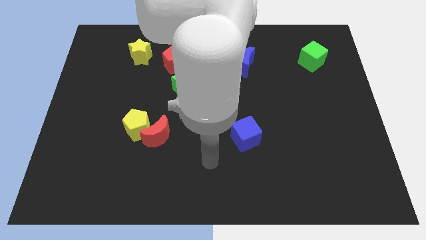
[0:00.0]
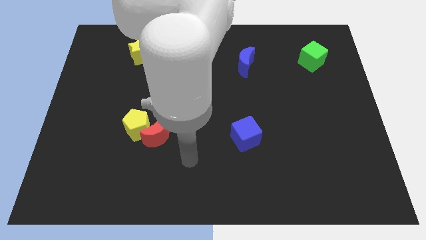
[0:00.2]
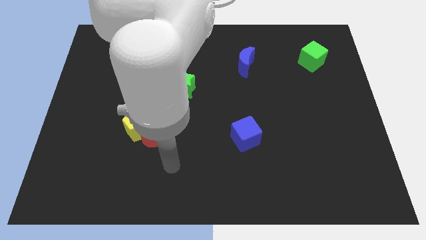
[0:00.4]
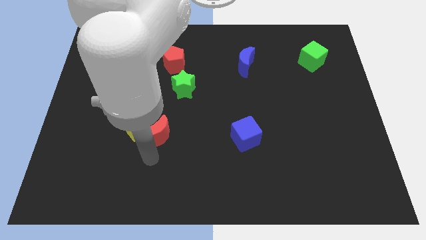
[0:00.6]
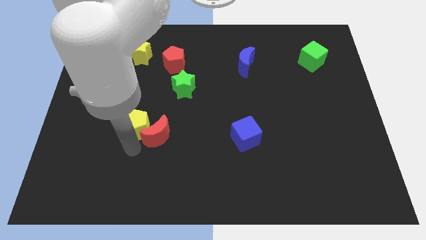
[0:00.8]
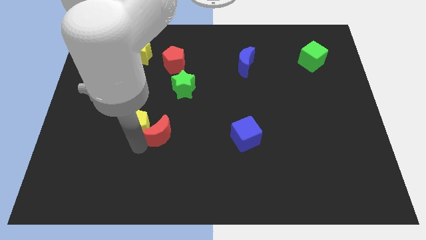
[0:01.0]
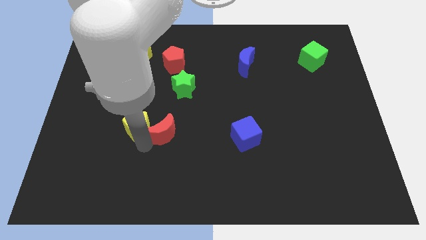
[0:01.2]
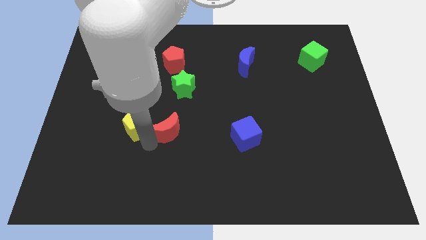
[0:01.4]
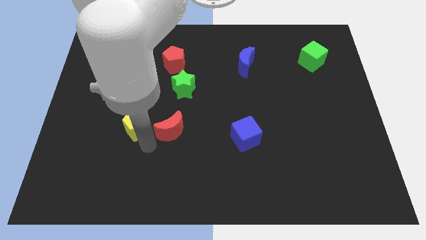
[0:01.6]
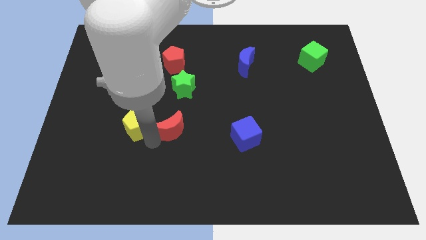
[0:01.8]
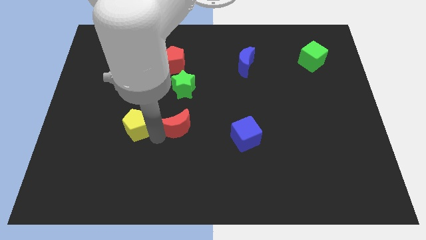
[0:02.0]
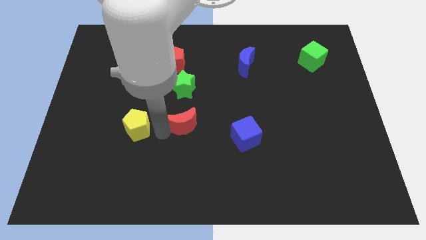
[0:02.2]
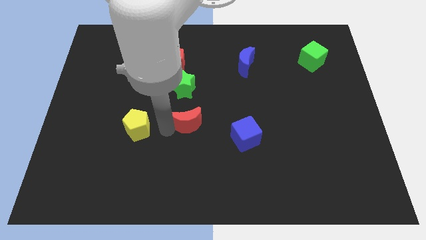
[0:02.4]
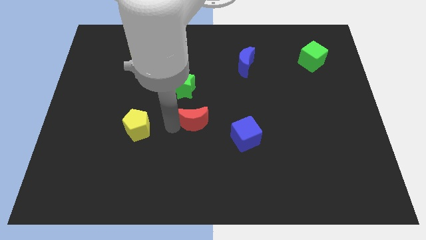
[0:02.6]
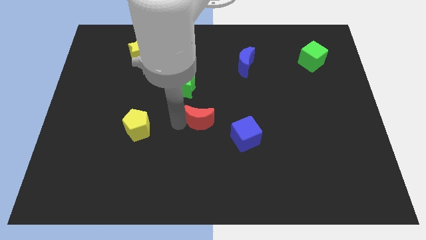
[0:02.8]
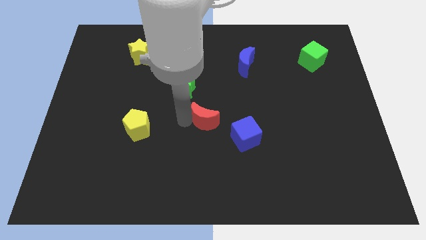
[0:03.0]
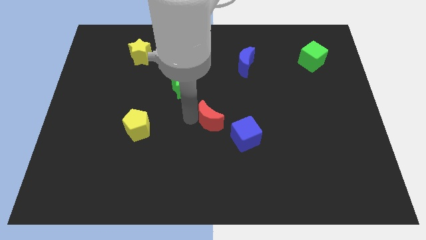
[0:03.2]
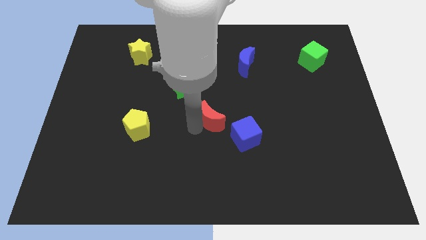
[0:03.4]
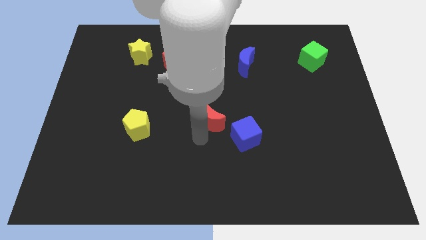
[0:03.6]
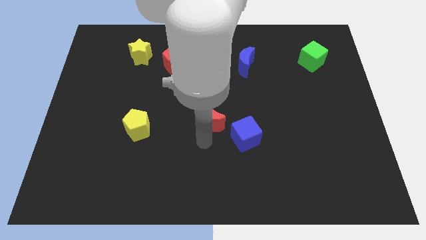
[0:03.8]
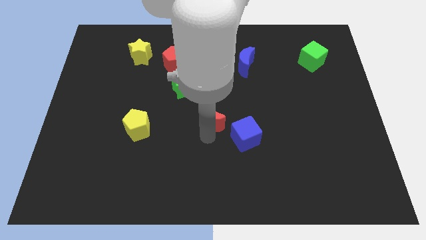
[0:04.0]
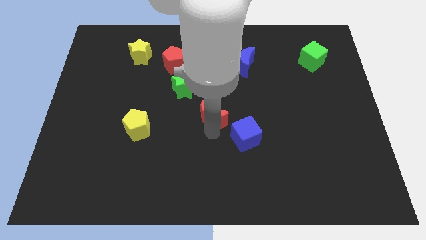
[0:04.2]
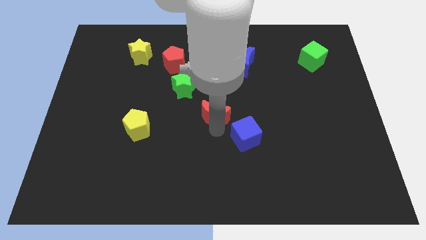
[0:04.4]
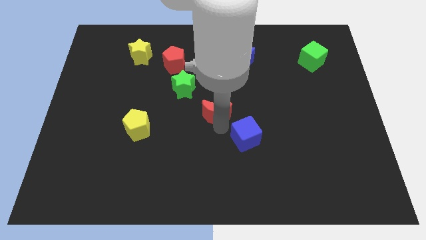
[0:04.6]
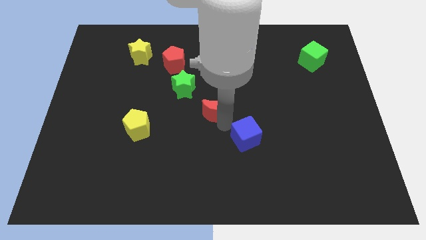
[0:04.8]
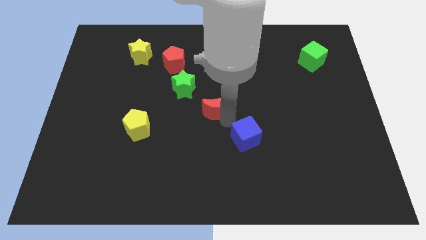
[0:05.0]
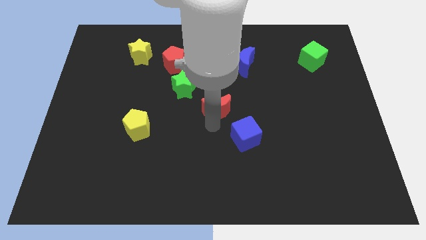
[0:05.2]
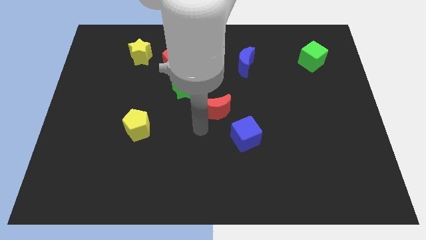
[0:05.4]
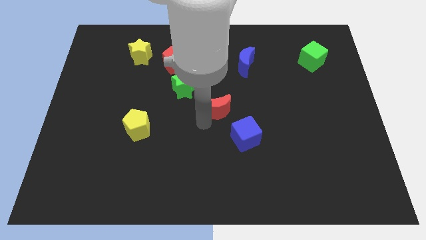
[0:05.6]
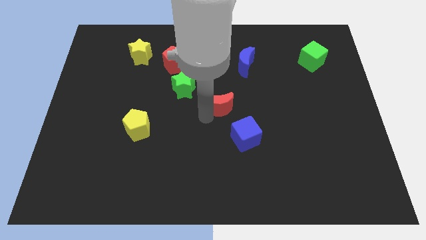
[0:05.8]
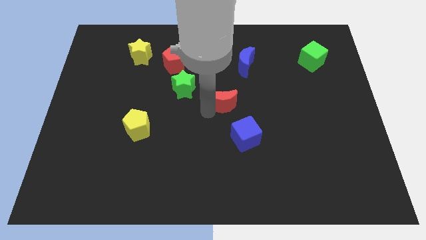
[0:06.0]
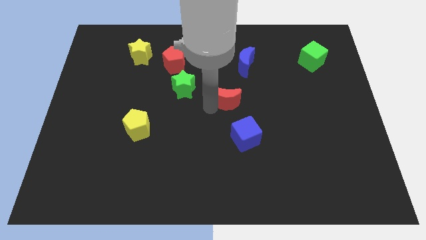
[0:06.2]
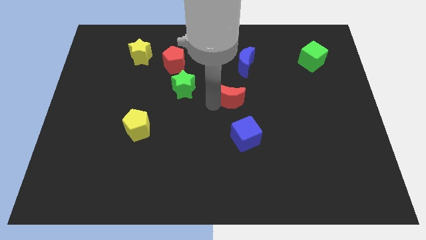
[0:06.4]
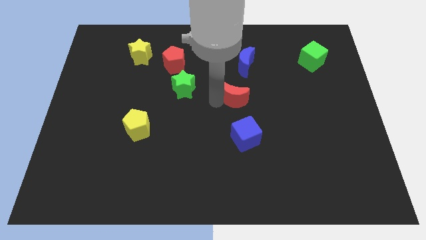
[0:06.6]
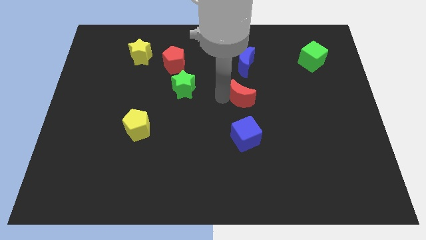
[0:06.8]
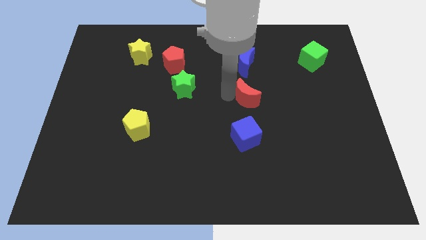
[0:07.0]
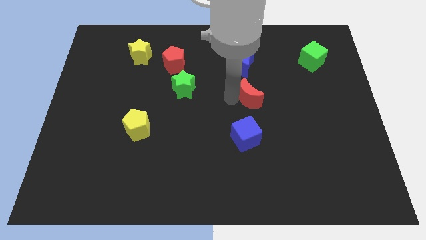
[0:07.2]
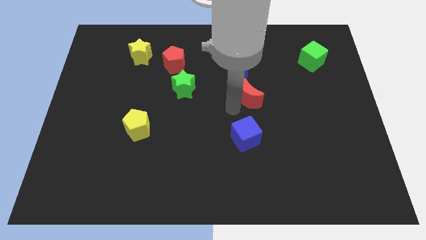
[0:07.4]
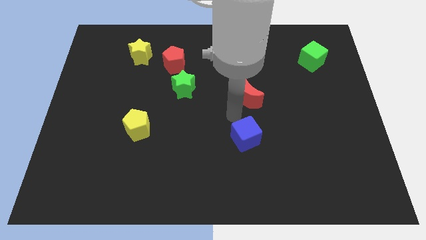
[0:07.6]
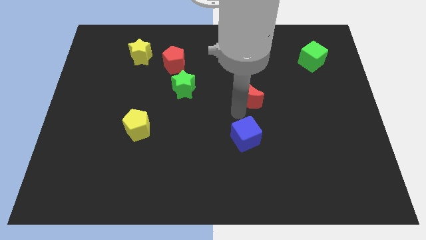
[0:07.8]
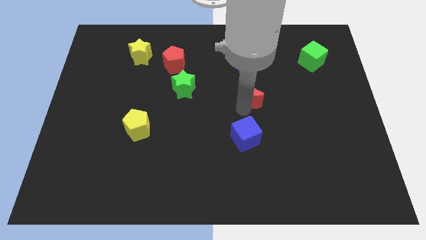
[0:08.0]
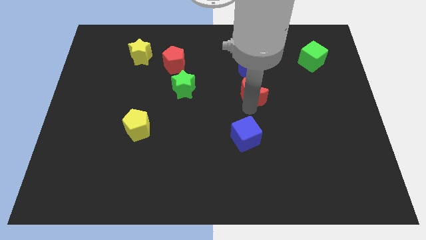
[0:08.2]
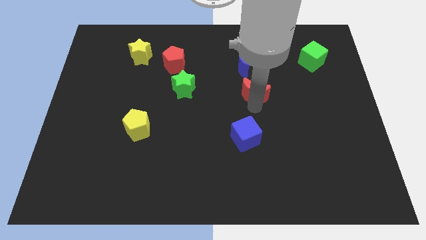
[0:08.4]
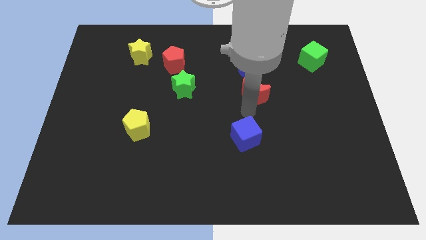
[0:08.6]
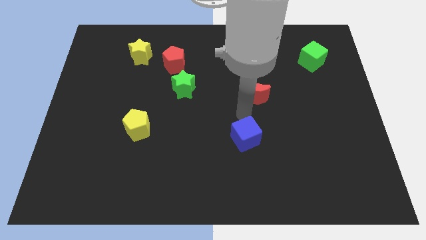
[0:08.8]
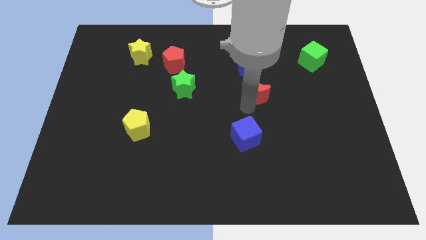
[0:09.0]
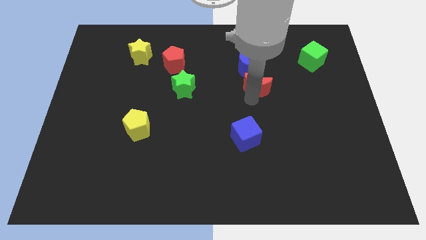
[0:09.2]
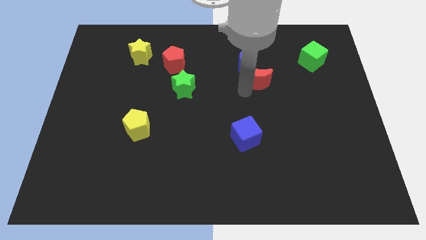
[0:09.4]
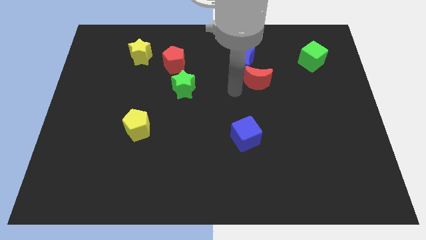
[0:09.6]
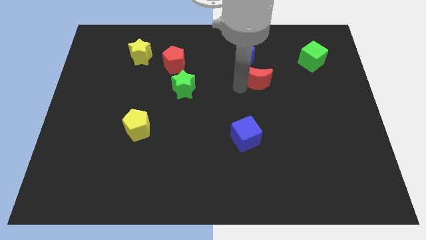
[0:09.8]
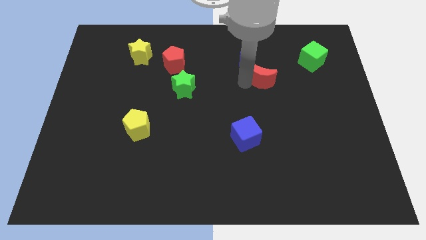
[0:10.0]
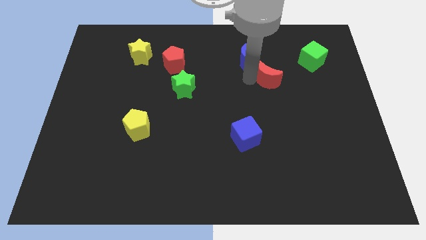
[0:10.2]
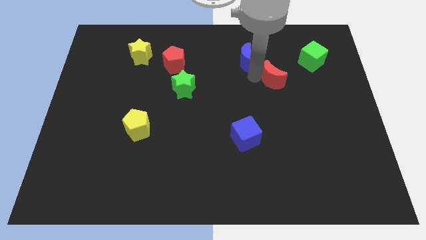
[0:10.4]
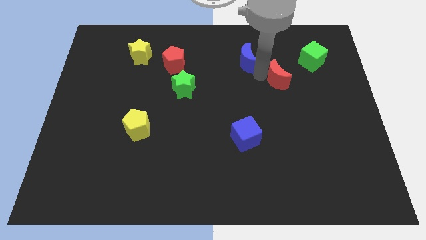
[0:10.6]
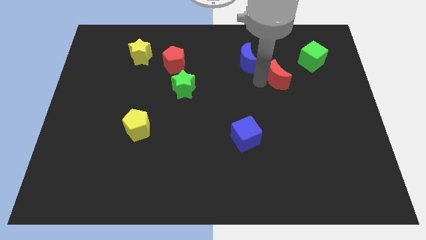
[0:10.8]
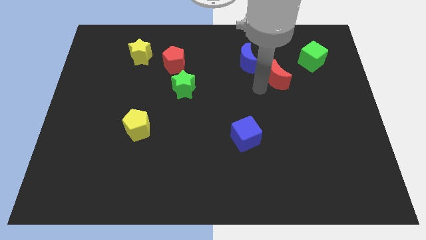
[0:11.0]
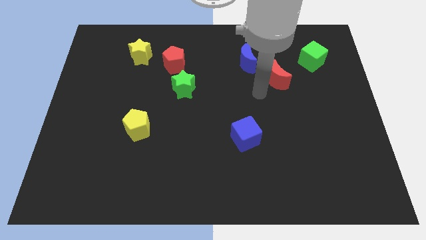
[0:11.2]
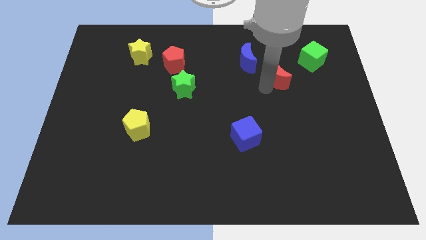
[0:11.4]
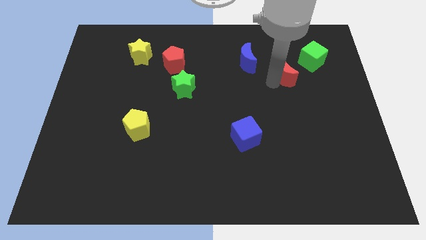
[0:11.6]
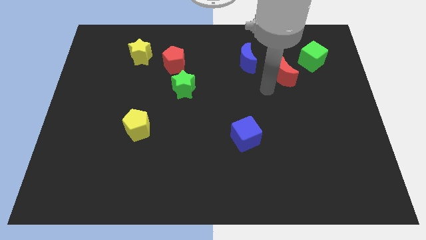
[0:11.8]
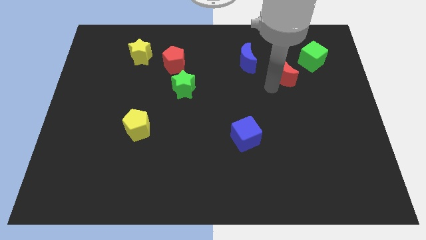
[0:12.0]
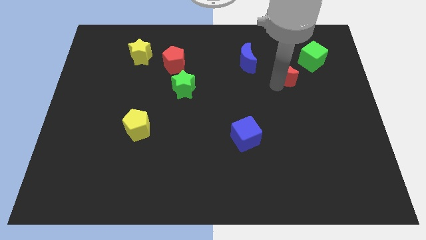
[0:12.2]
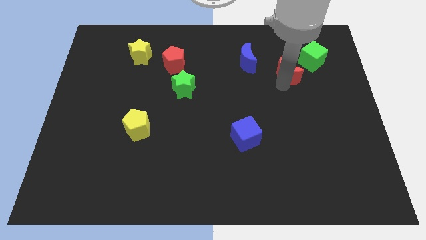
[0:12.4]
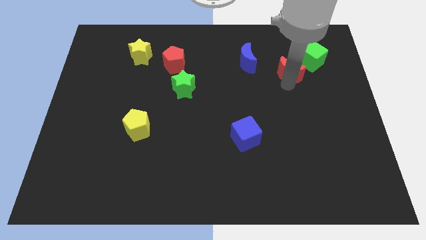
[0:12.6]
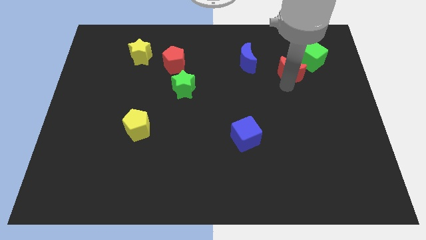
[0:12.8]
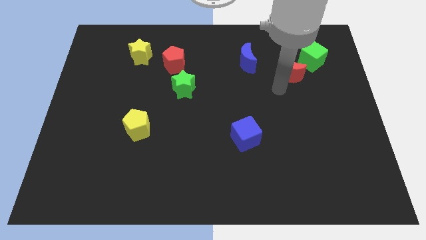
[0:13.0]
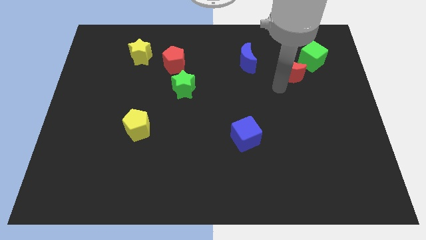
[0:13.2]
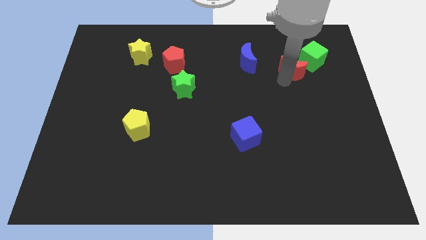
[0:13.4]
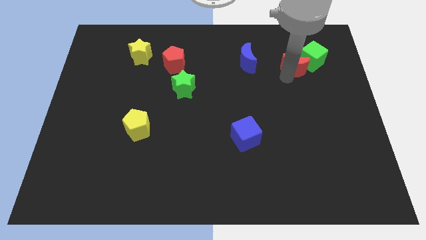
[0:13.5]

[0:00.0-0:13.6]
put the red moon to the green cube
